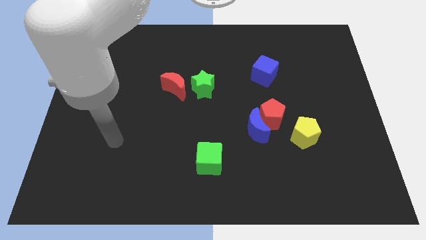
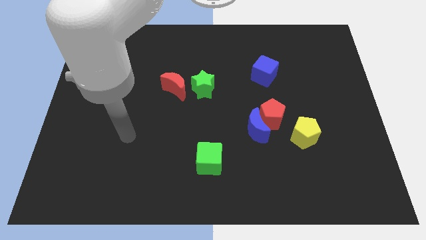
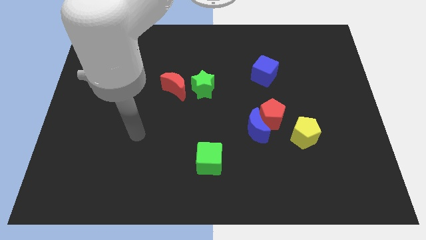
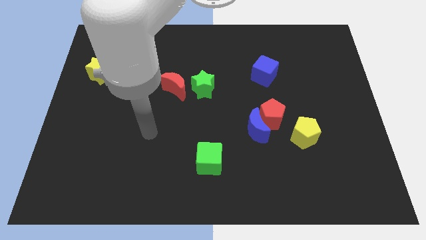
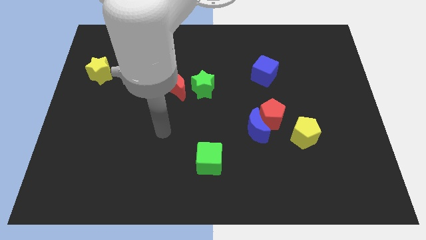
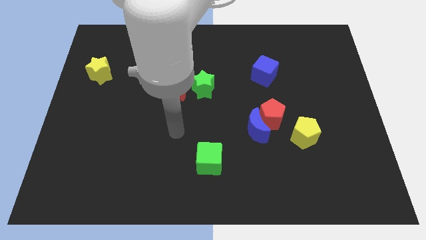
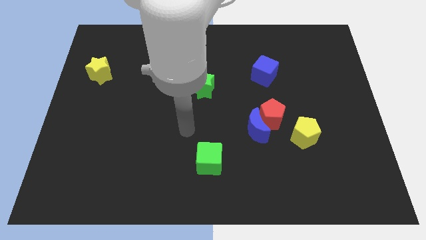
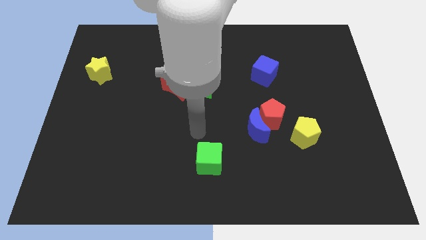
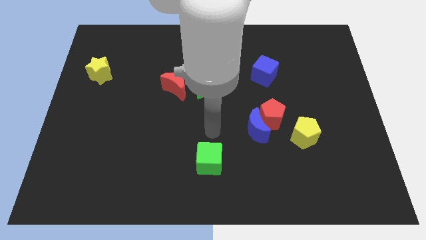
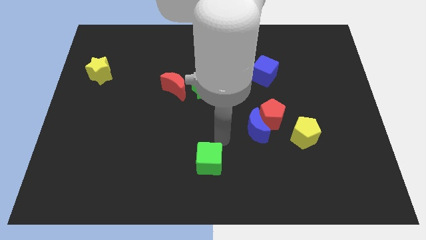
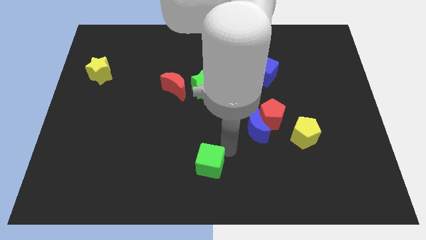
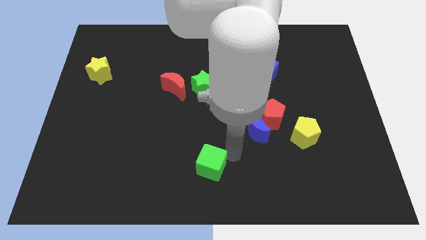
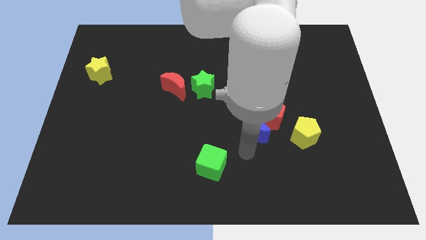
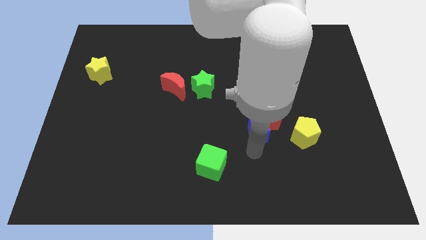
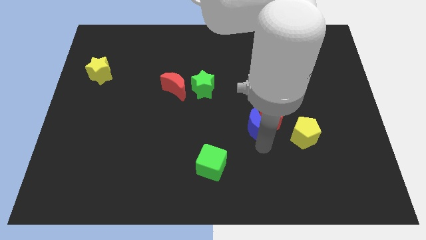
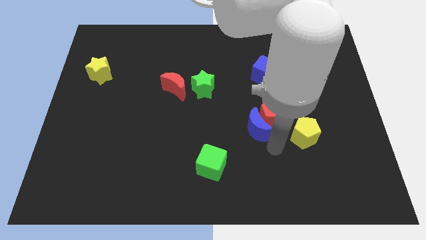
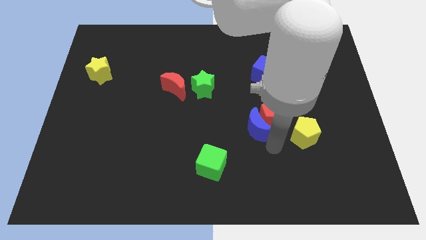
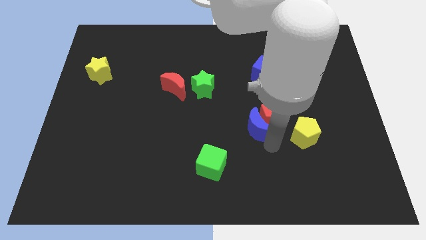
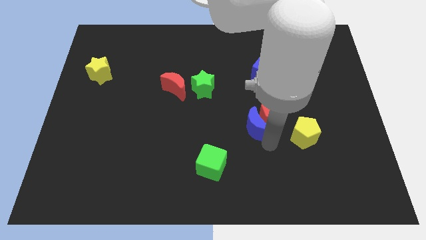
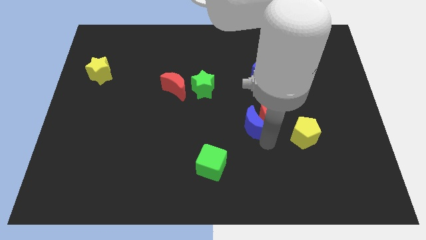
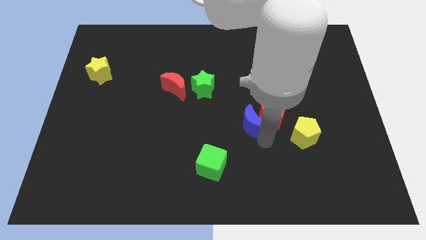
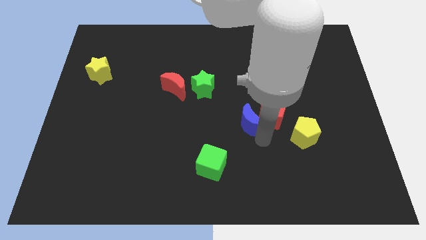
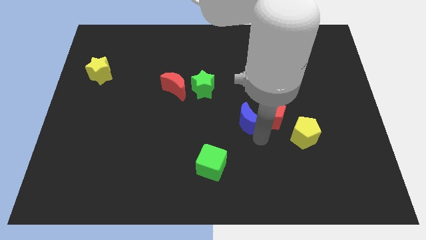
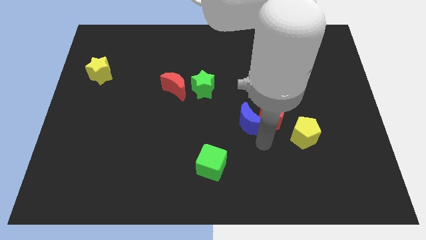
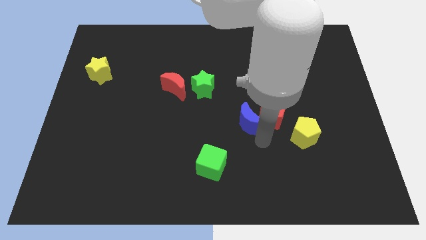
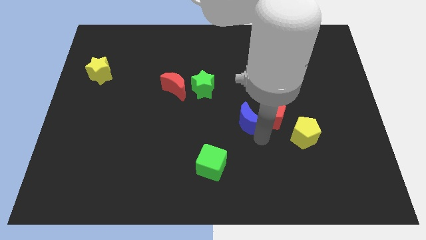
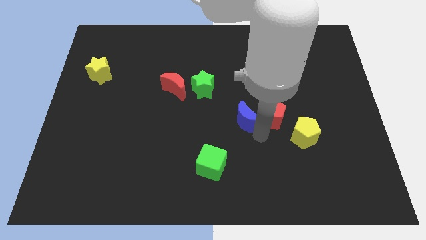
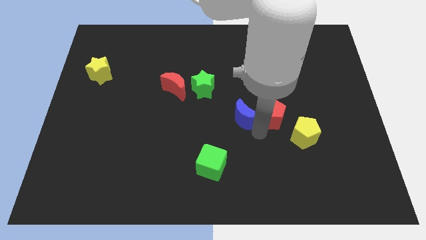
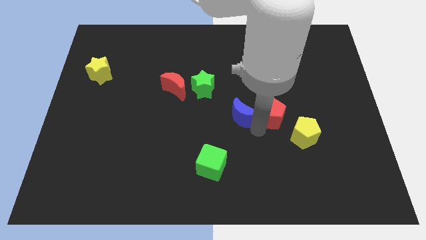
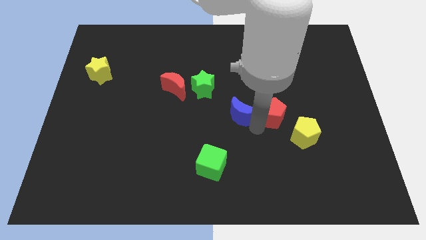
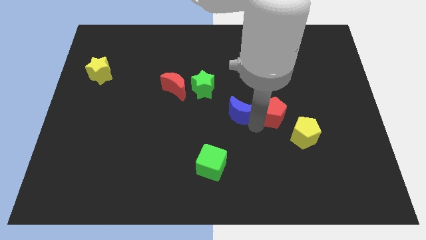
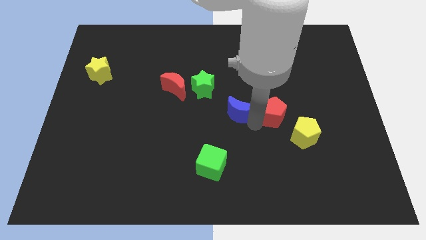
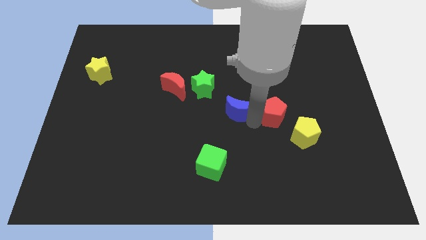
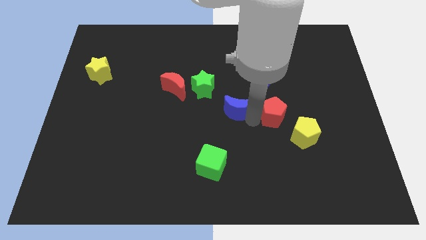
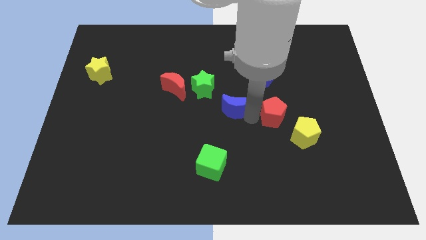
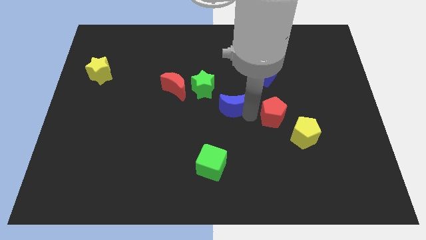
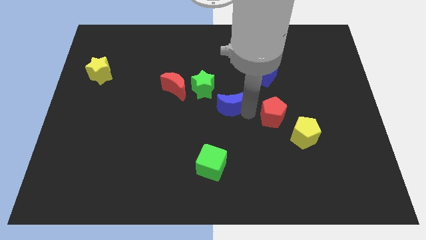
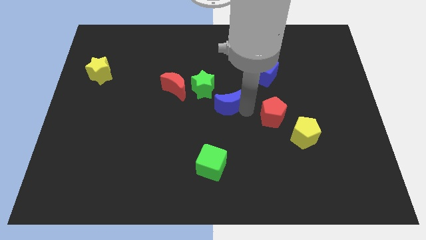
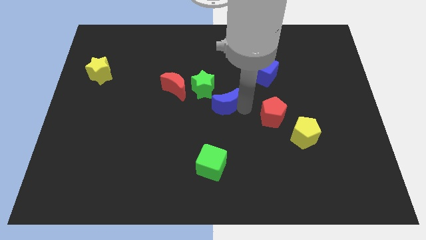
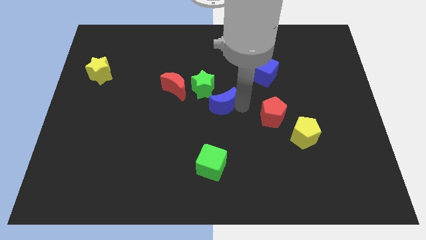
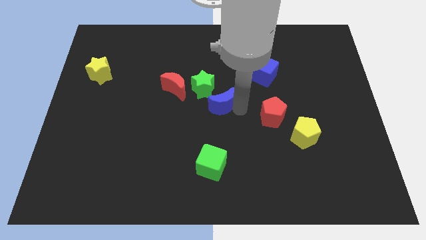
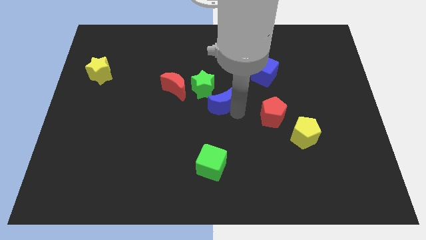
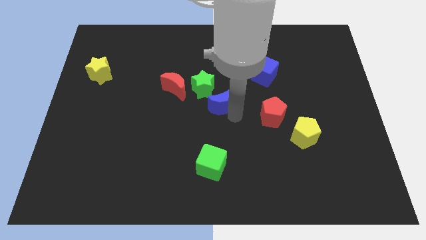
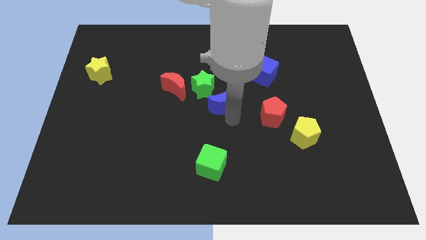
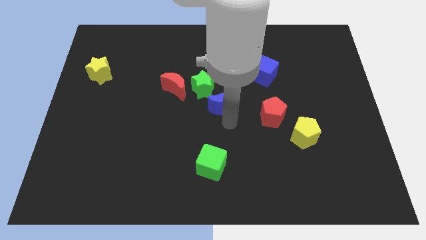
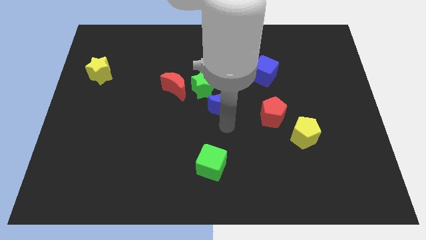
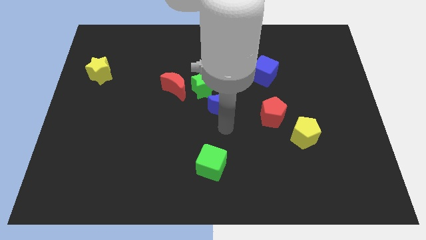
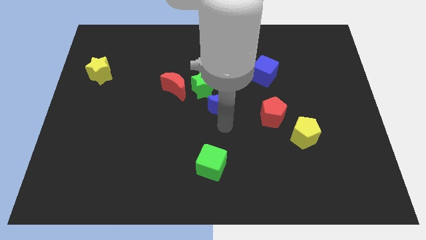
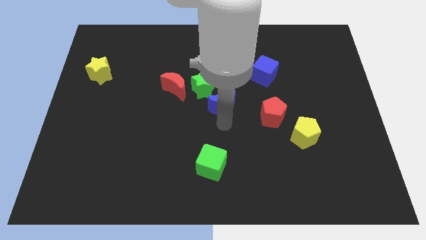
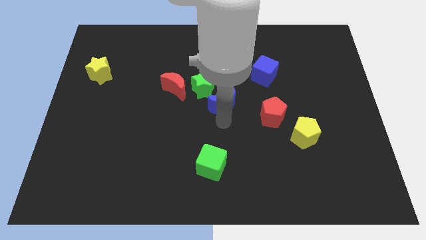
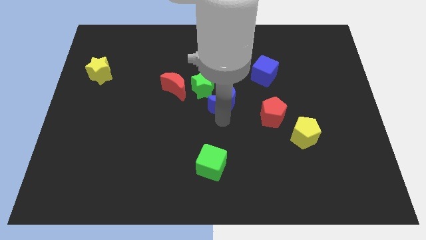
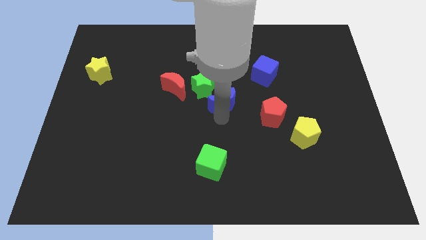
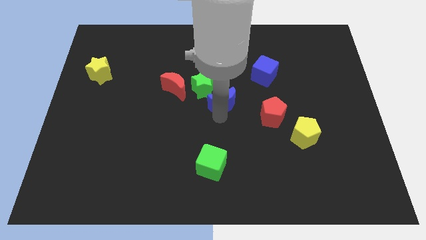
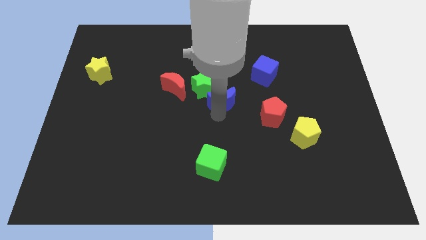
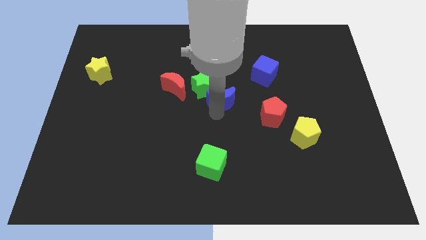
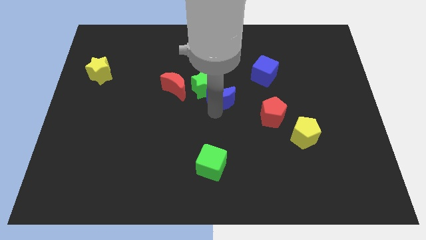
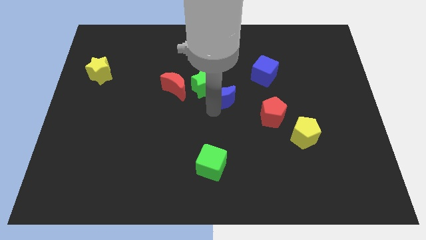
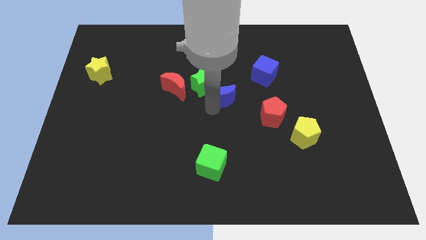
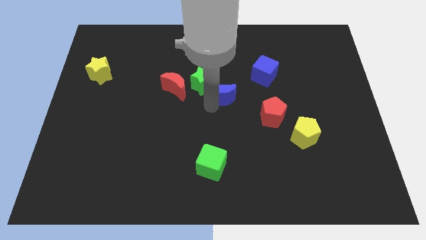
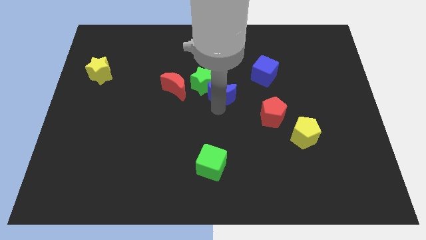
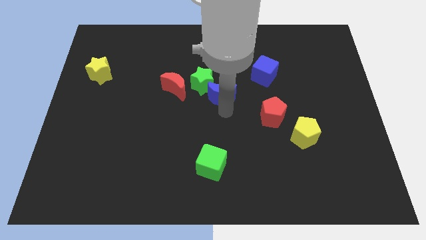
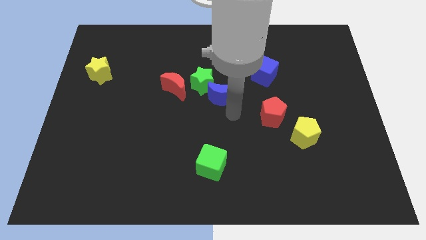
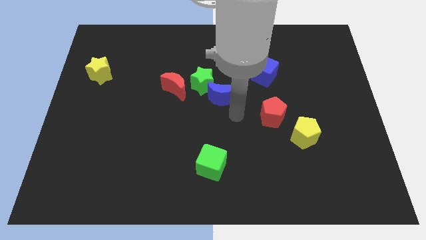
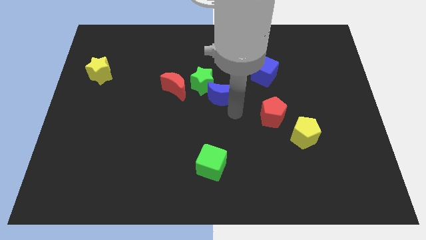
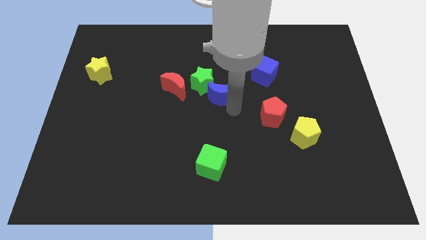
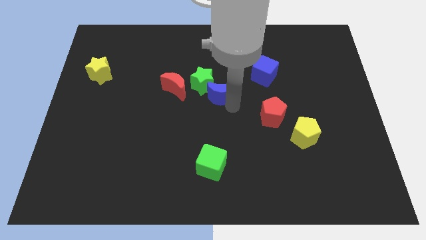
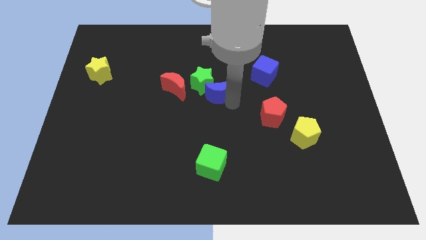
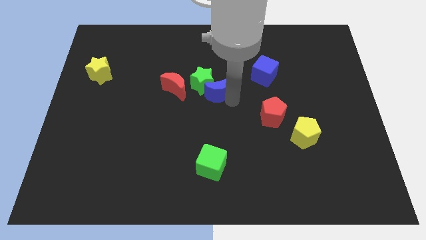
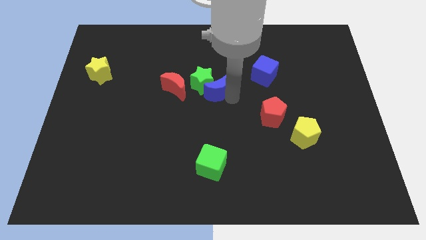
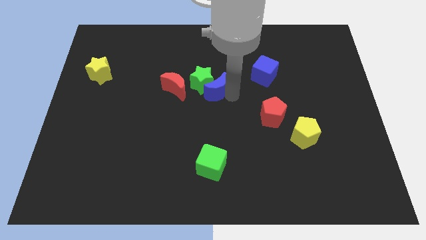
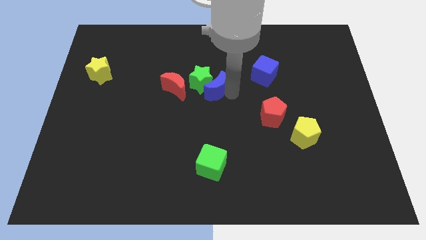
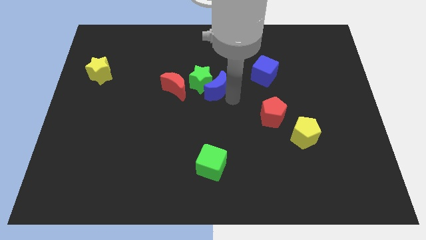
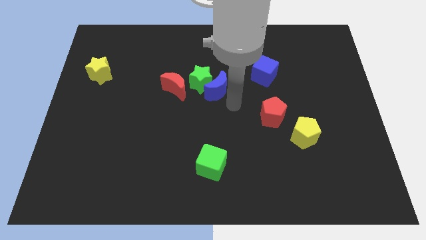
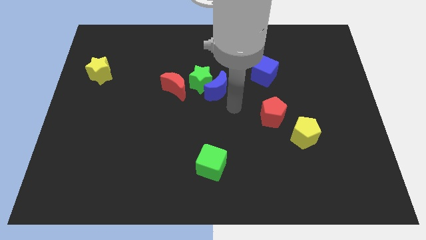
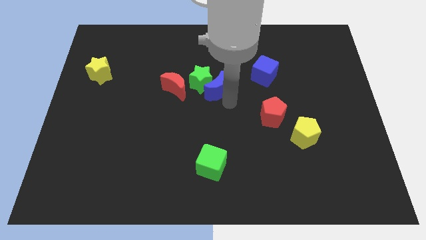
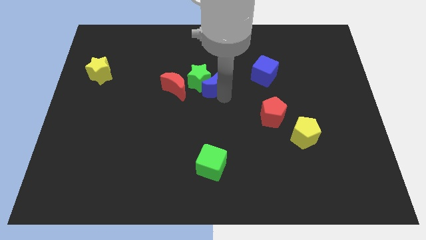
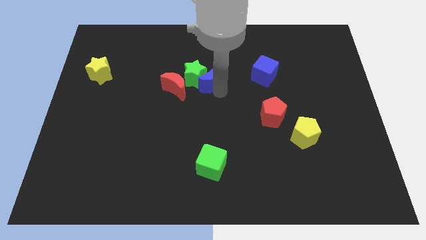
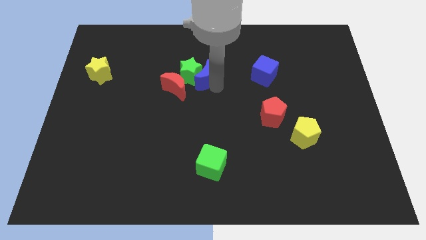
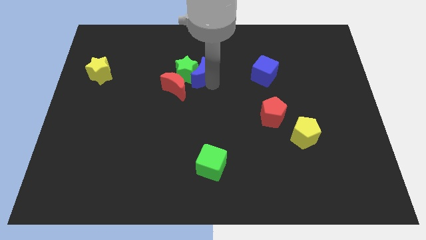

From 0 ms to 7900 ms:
move the blue moon up and to the left
